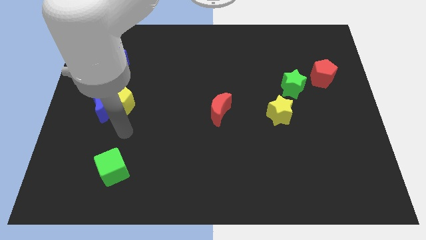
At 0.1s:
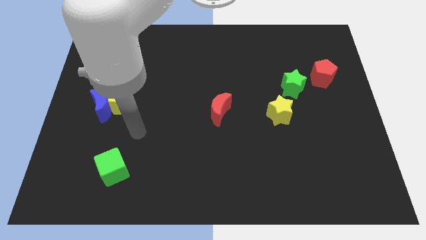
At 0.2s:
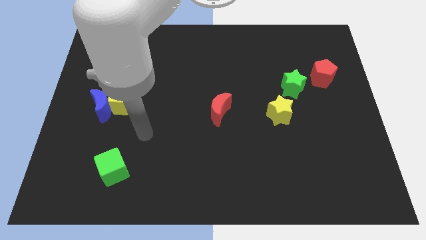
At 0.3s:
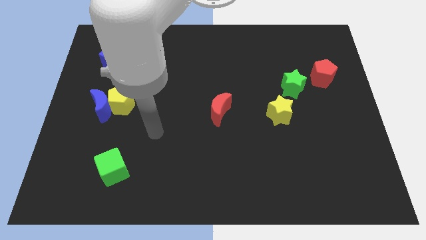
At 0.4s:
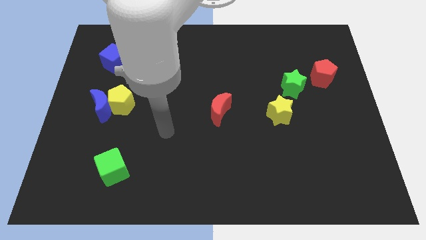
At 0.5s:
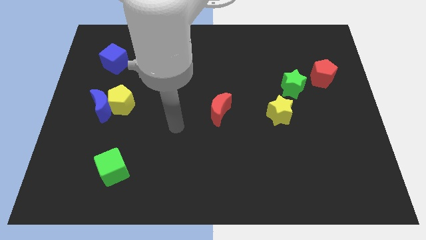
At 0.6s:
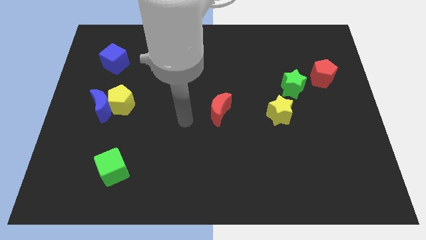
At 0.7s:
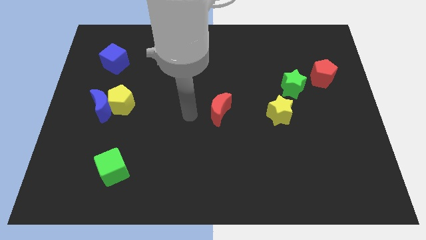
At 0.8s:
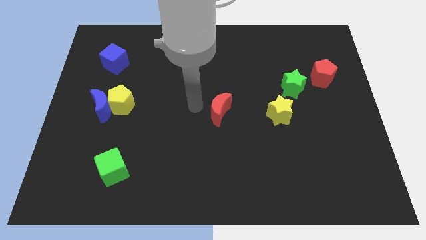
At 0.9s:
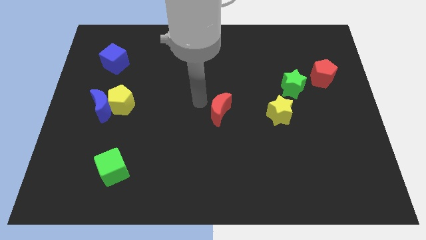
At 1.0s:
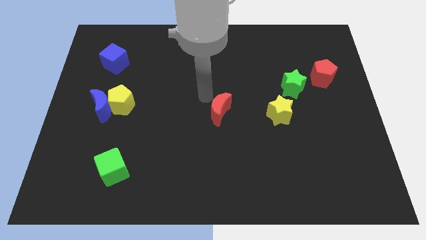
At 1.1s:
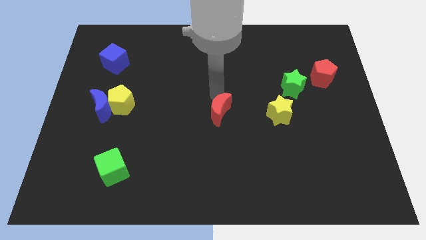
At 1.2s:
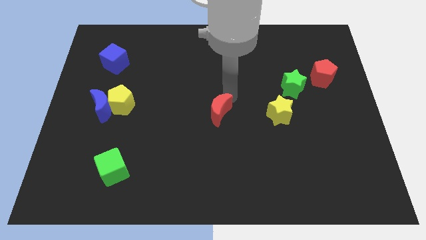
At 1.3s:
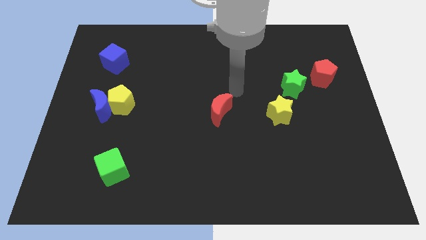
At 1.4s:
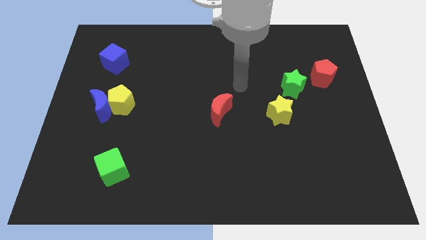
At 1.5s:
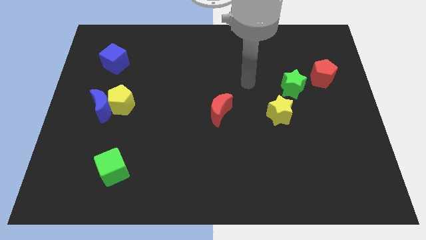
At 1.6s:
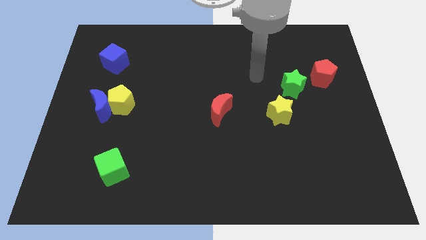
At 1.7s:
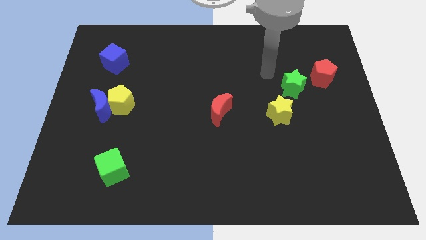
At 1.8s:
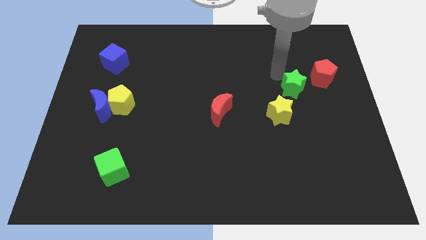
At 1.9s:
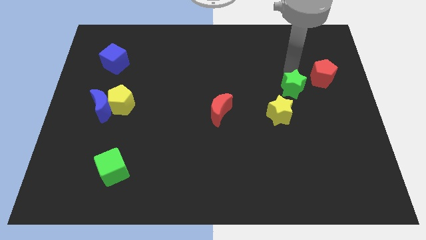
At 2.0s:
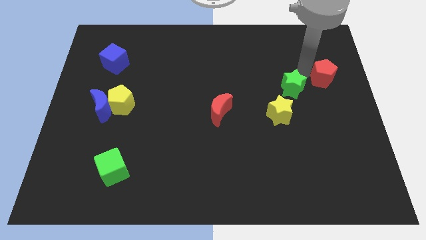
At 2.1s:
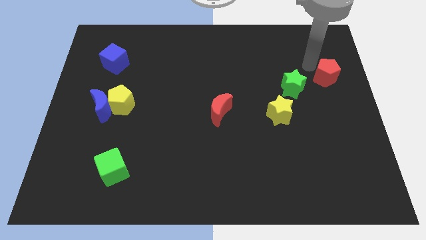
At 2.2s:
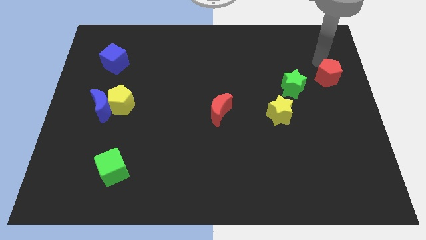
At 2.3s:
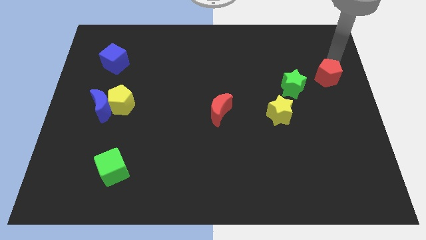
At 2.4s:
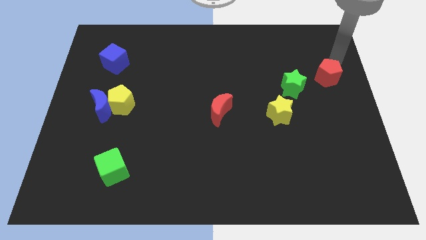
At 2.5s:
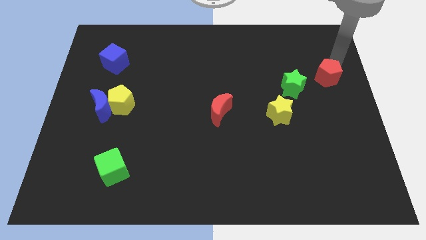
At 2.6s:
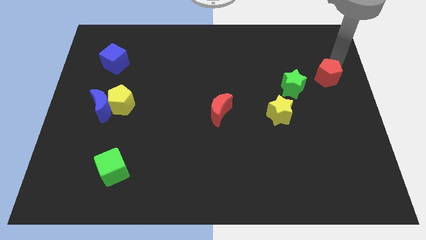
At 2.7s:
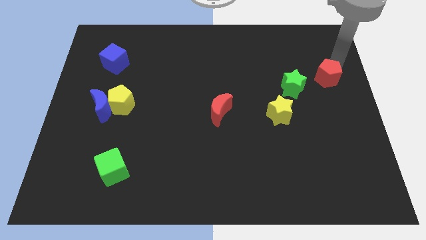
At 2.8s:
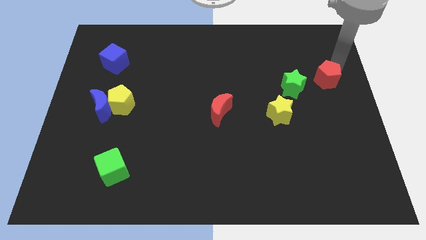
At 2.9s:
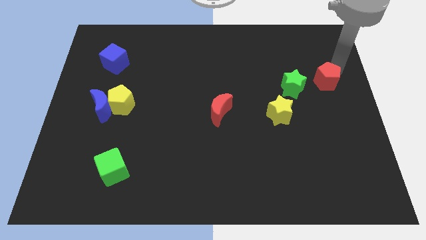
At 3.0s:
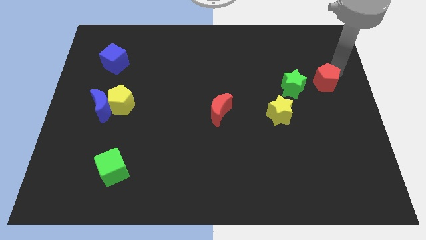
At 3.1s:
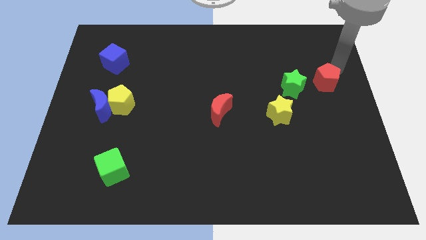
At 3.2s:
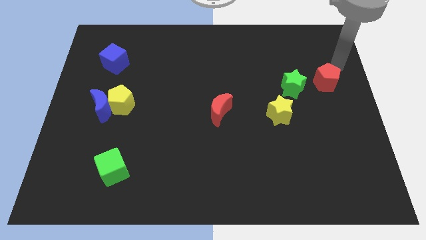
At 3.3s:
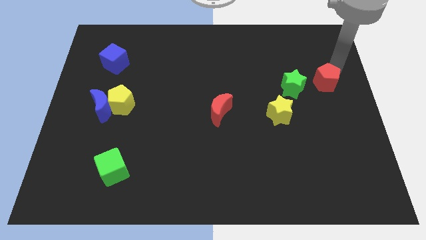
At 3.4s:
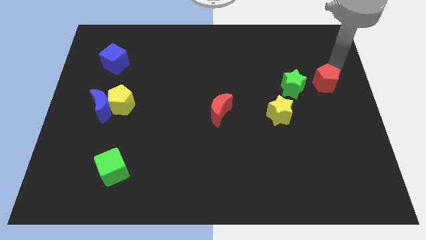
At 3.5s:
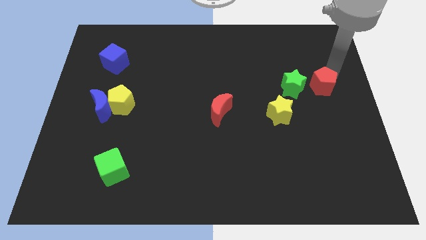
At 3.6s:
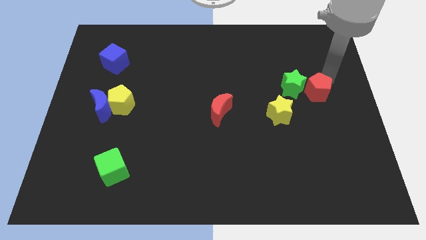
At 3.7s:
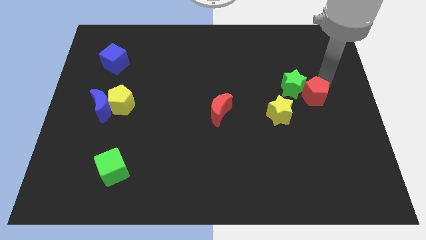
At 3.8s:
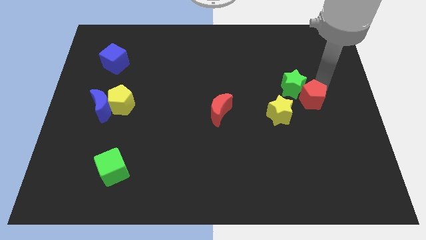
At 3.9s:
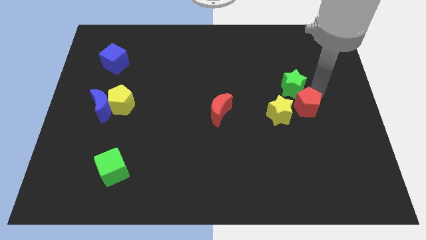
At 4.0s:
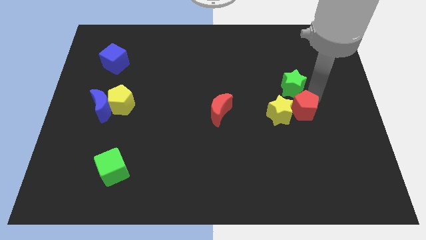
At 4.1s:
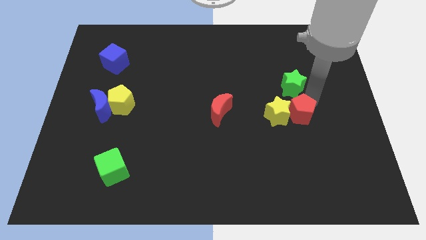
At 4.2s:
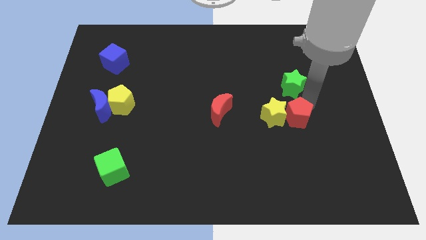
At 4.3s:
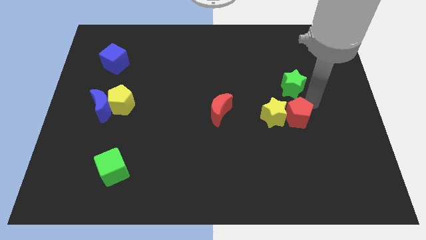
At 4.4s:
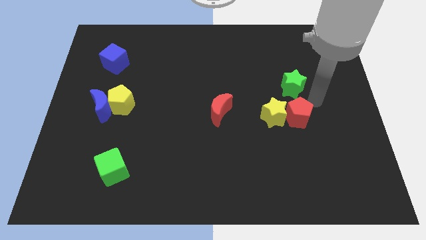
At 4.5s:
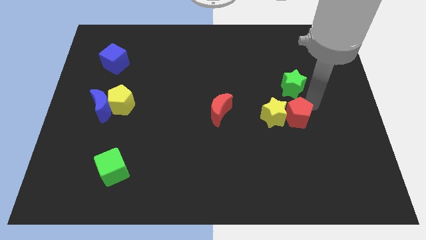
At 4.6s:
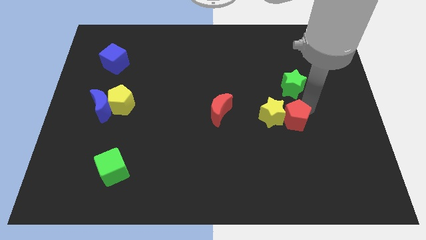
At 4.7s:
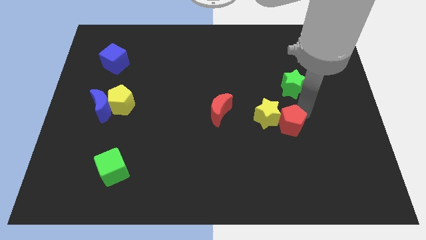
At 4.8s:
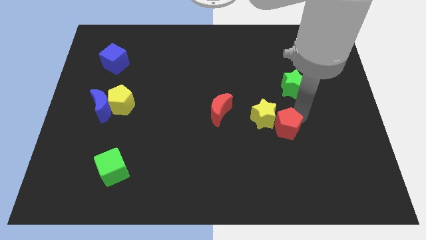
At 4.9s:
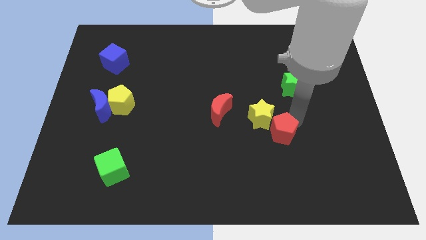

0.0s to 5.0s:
push the red pentagon downwards and then to the left

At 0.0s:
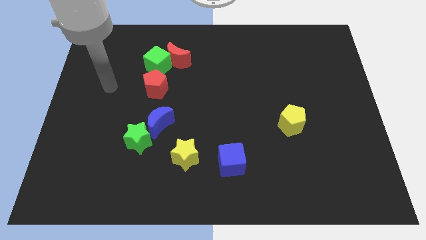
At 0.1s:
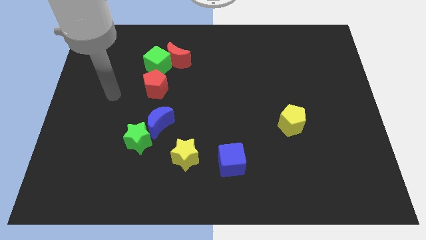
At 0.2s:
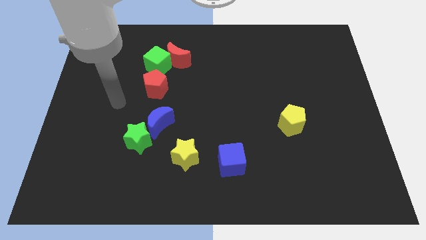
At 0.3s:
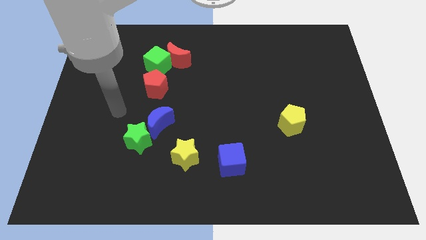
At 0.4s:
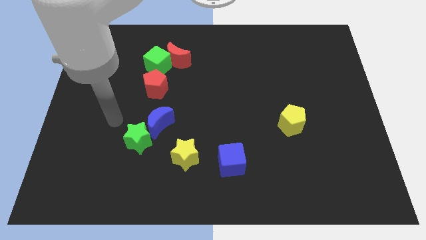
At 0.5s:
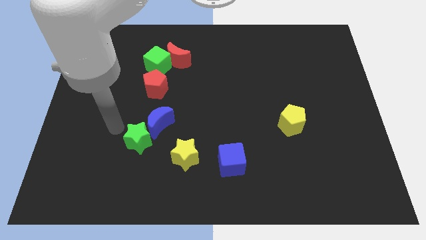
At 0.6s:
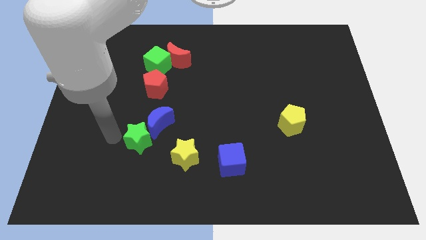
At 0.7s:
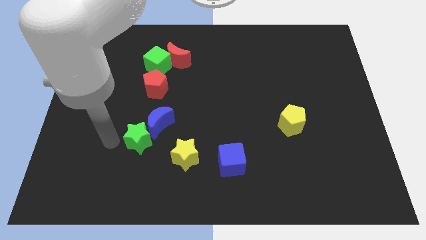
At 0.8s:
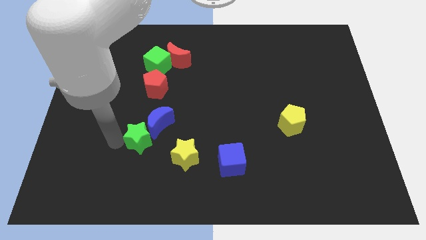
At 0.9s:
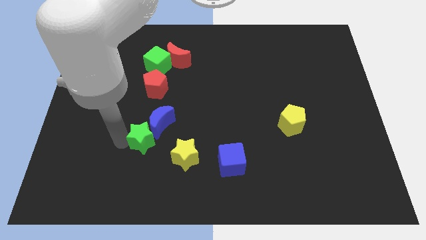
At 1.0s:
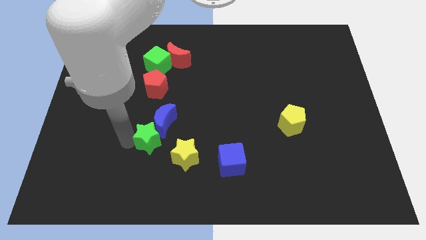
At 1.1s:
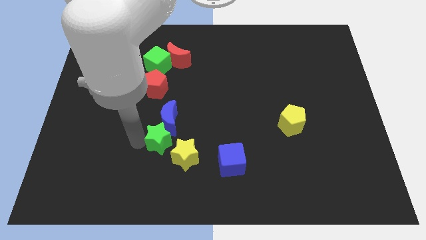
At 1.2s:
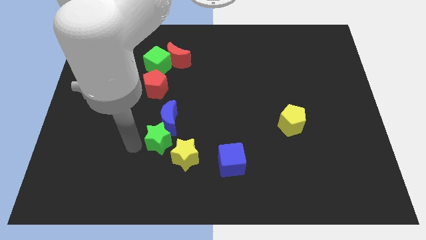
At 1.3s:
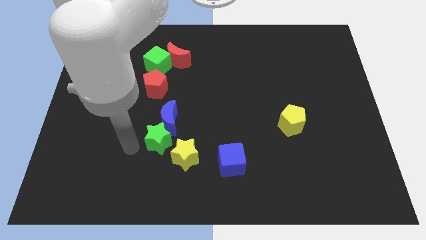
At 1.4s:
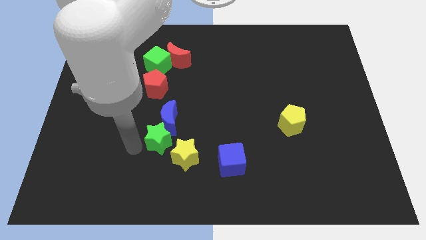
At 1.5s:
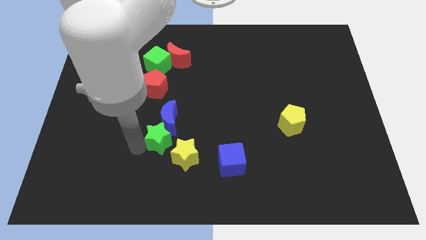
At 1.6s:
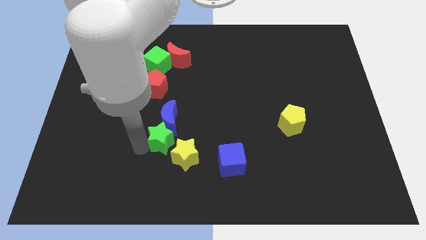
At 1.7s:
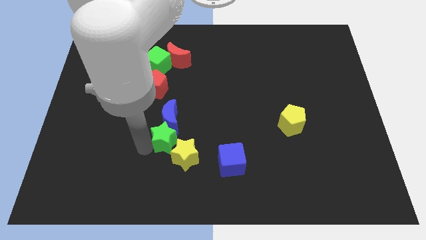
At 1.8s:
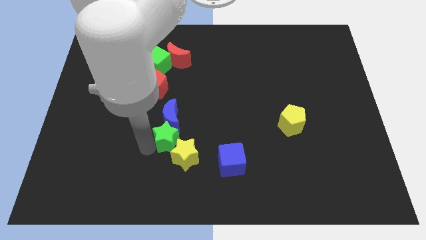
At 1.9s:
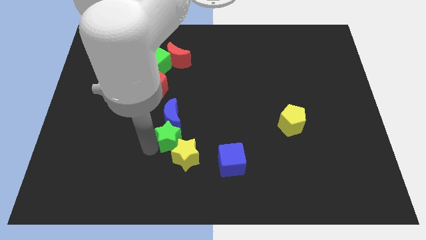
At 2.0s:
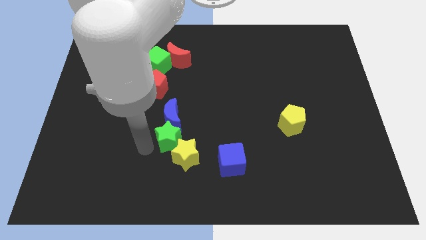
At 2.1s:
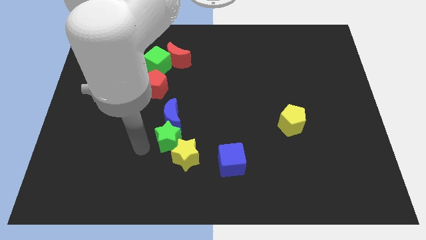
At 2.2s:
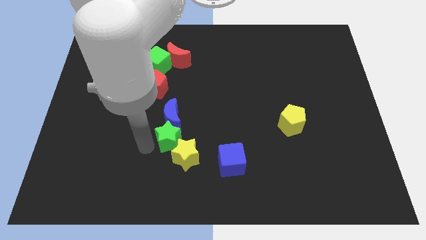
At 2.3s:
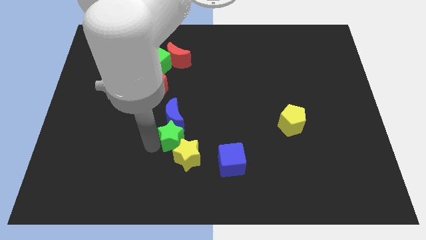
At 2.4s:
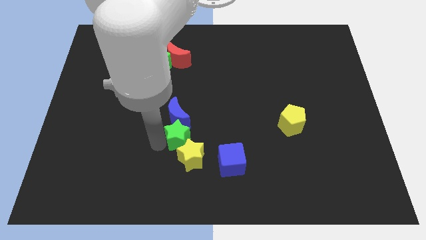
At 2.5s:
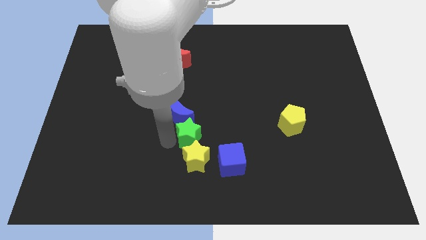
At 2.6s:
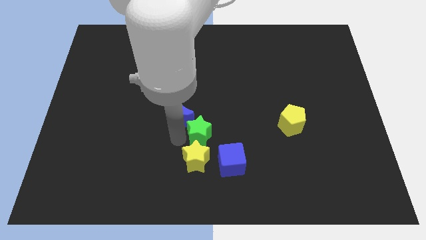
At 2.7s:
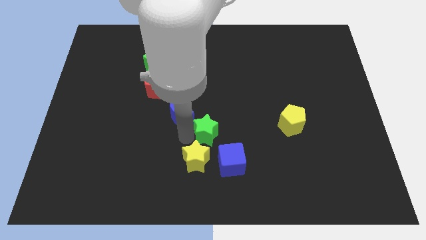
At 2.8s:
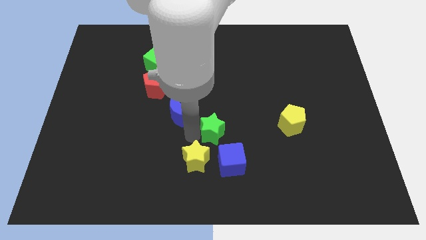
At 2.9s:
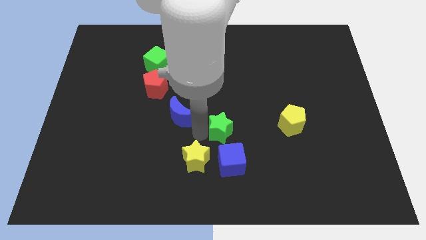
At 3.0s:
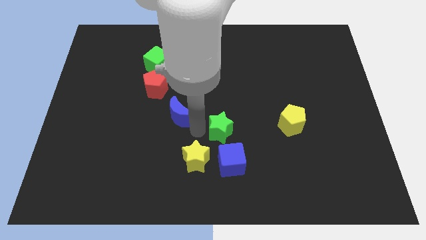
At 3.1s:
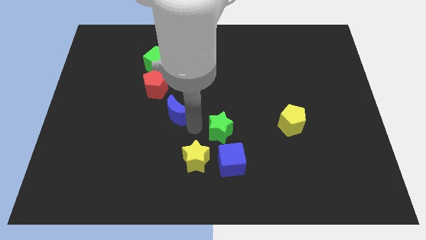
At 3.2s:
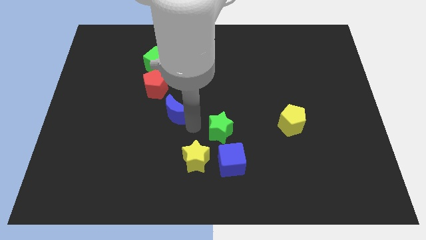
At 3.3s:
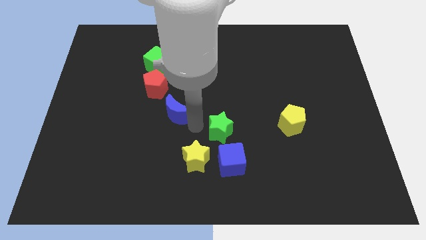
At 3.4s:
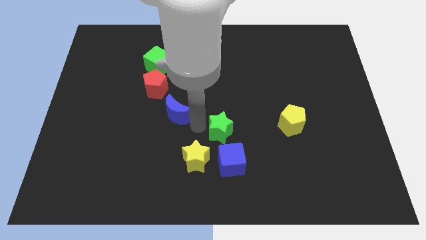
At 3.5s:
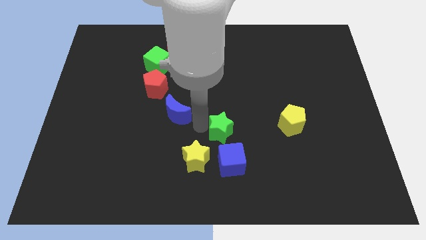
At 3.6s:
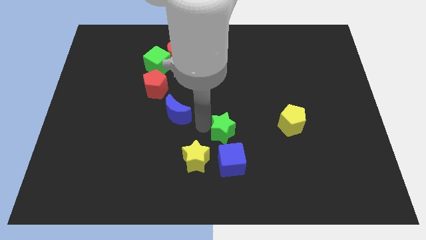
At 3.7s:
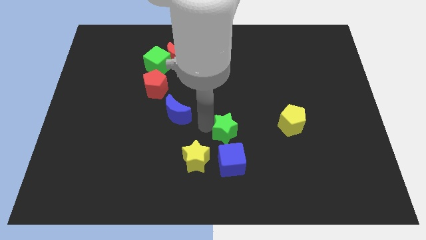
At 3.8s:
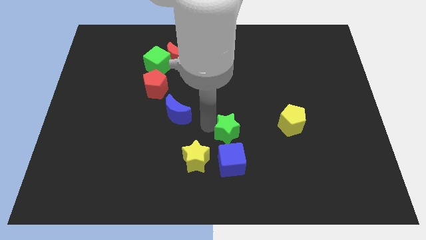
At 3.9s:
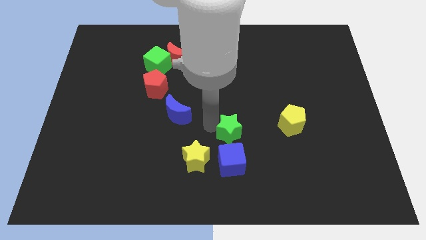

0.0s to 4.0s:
move the green star to the right
